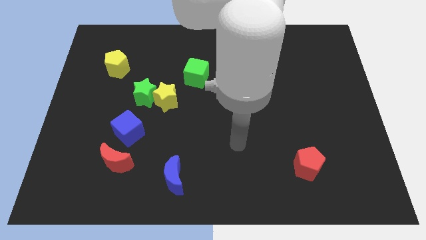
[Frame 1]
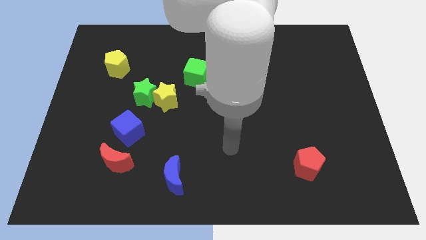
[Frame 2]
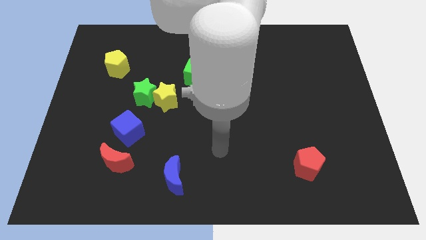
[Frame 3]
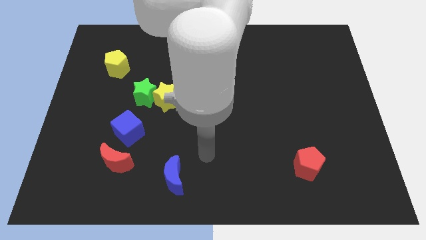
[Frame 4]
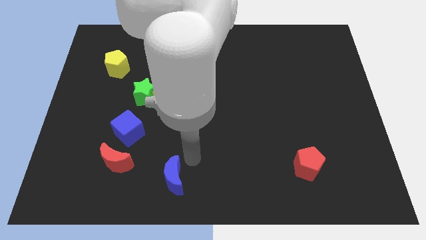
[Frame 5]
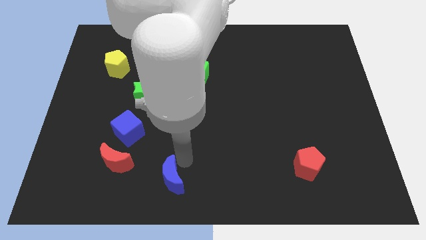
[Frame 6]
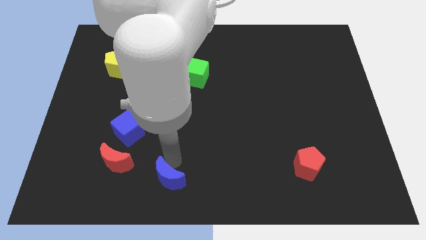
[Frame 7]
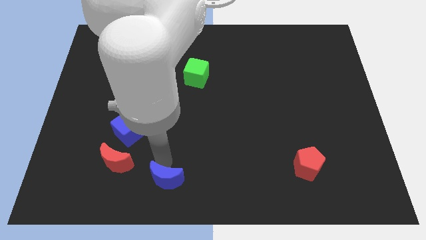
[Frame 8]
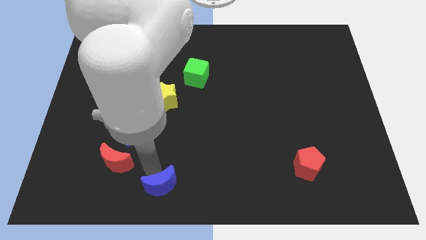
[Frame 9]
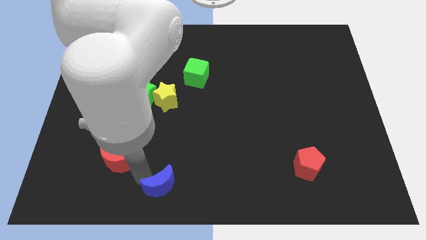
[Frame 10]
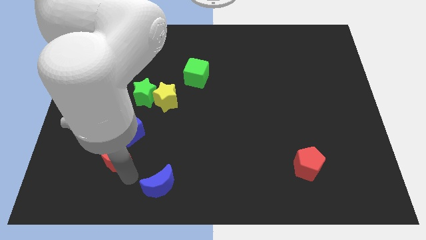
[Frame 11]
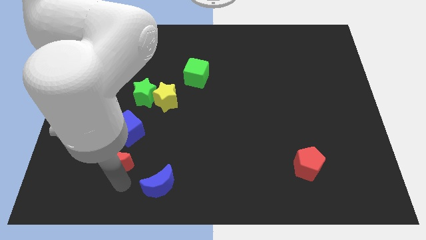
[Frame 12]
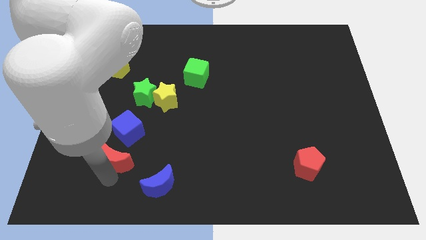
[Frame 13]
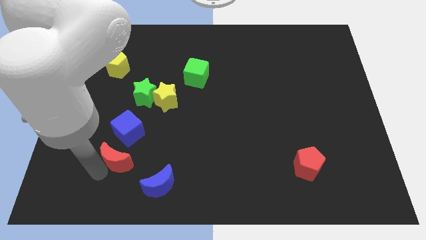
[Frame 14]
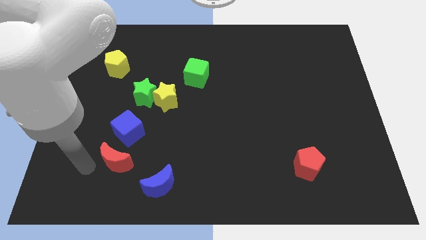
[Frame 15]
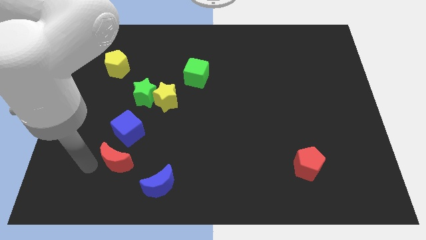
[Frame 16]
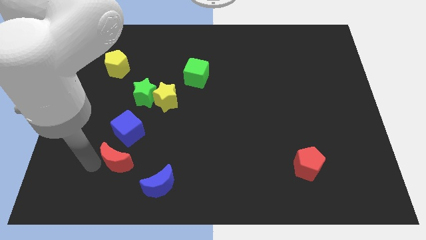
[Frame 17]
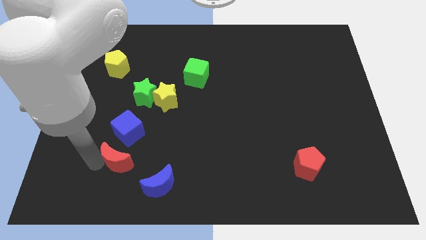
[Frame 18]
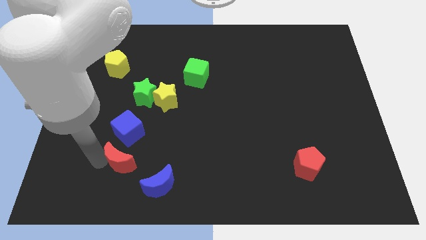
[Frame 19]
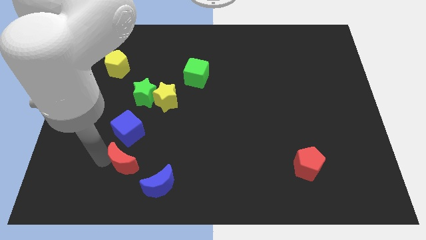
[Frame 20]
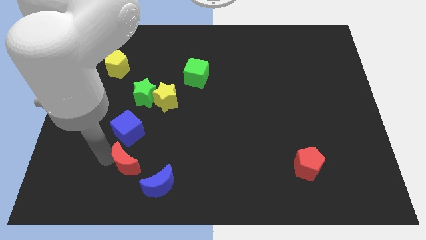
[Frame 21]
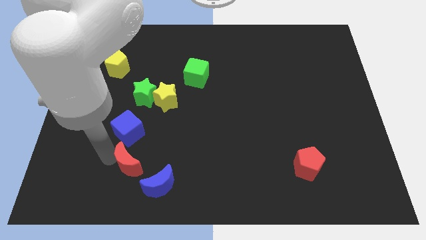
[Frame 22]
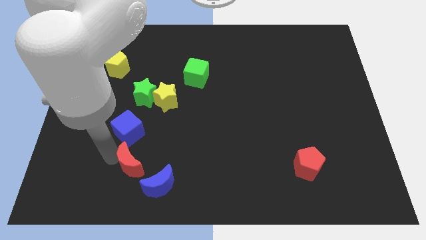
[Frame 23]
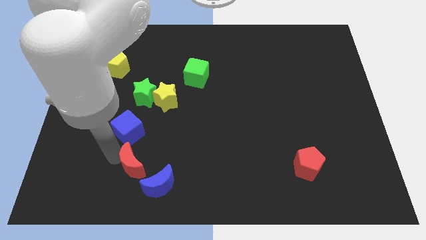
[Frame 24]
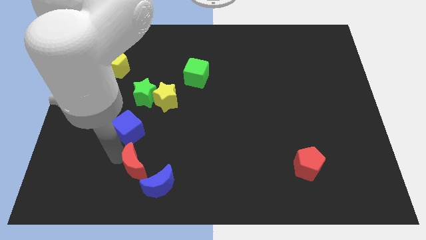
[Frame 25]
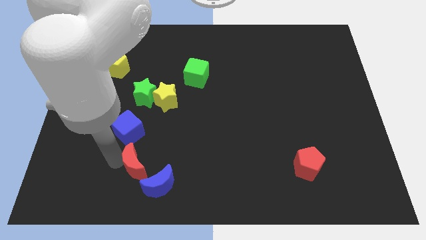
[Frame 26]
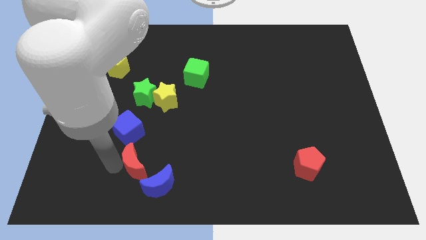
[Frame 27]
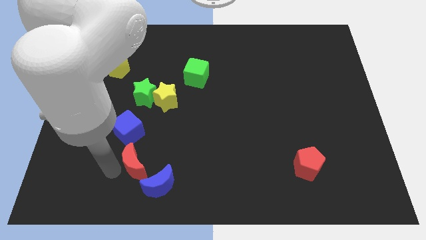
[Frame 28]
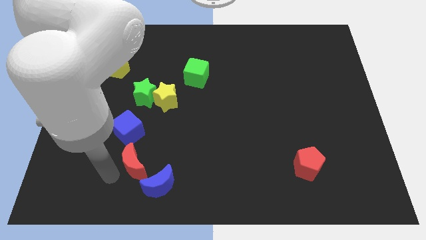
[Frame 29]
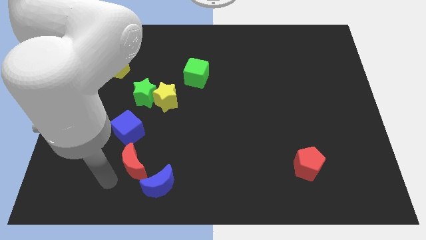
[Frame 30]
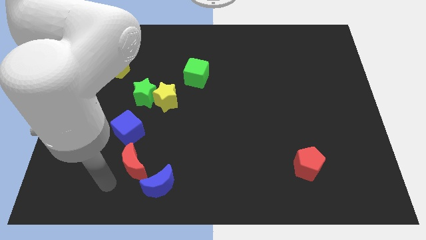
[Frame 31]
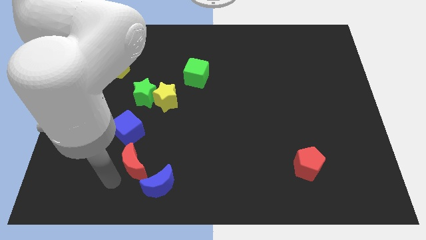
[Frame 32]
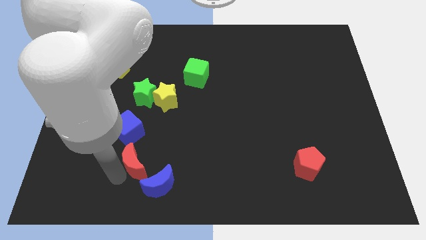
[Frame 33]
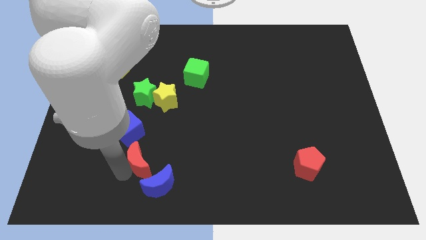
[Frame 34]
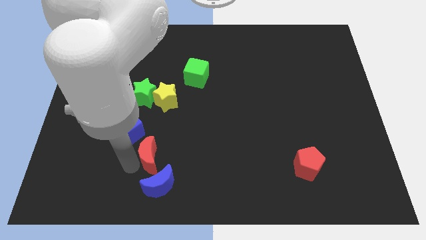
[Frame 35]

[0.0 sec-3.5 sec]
slide the red moon a little to the right

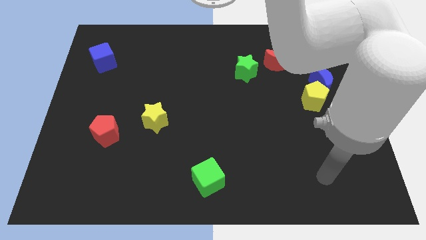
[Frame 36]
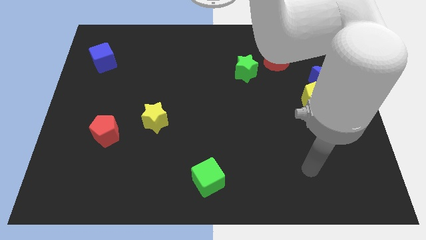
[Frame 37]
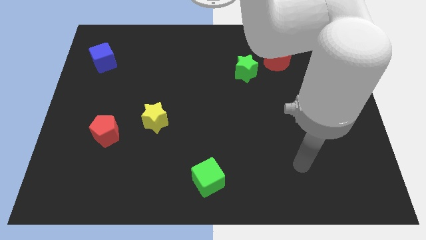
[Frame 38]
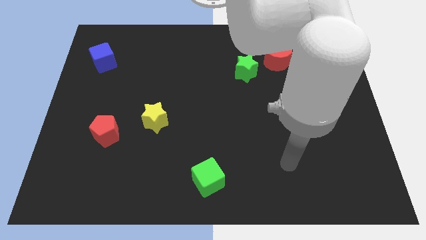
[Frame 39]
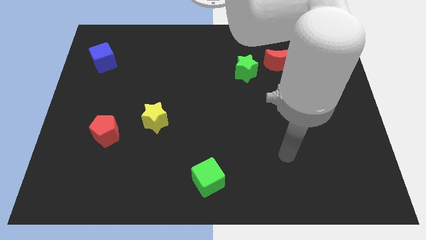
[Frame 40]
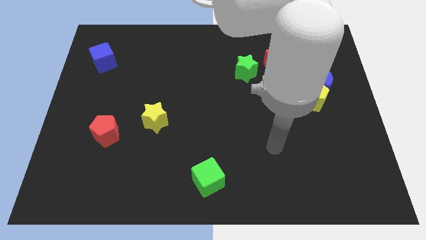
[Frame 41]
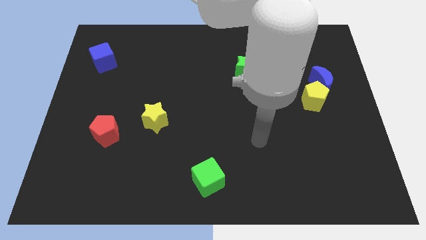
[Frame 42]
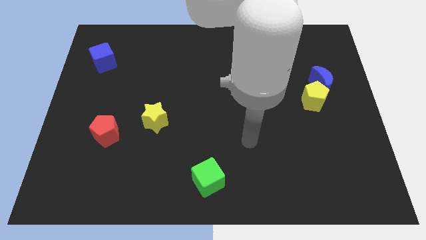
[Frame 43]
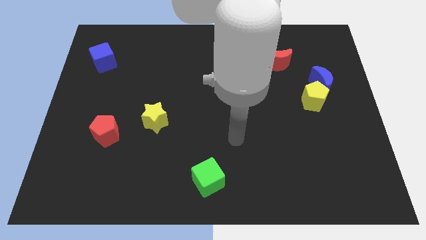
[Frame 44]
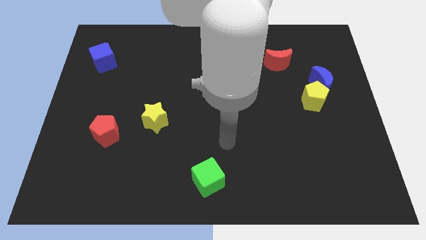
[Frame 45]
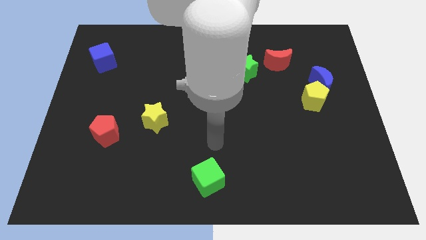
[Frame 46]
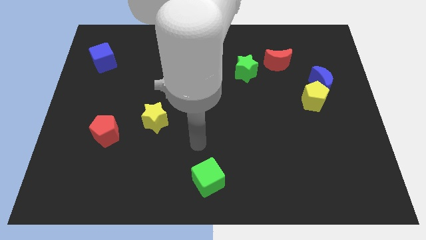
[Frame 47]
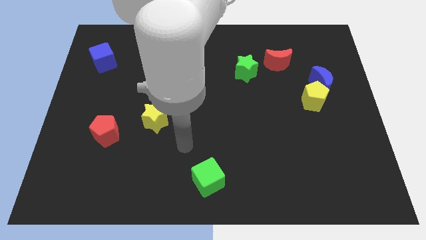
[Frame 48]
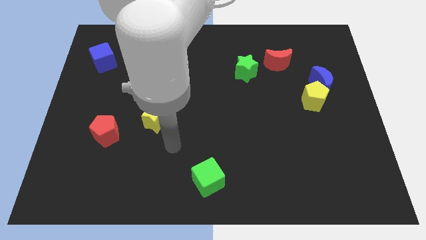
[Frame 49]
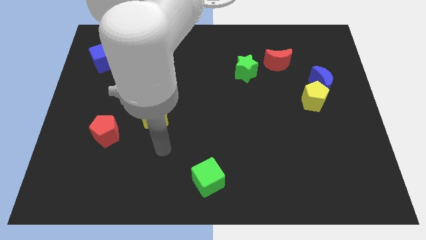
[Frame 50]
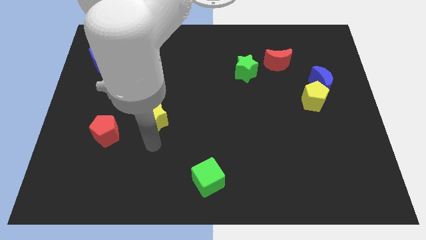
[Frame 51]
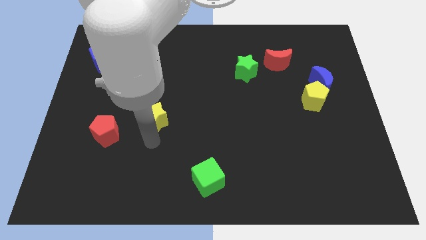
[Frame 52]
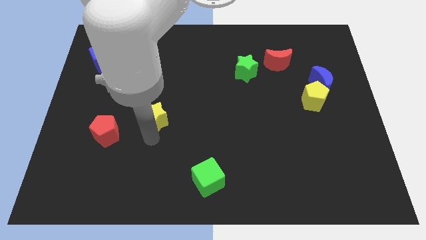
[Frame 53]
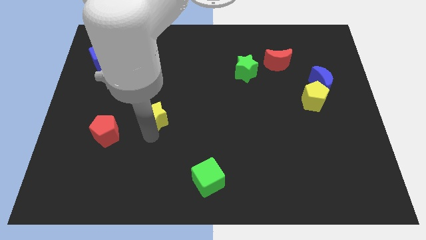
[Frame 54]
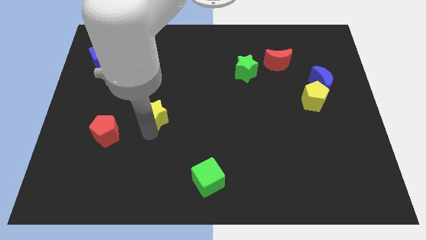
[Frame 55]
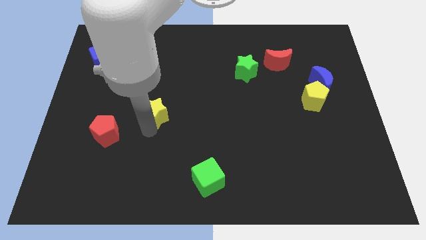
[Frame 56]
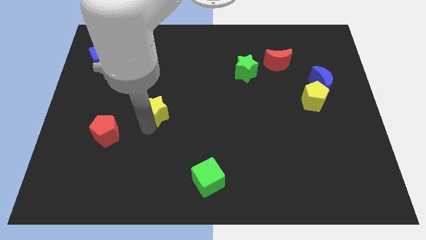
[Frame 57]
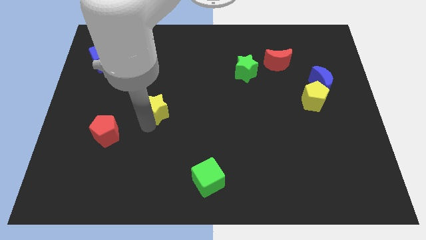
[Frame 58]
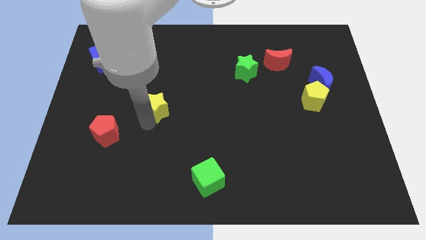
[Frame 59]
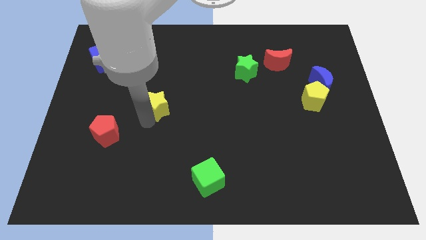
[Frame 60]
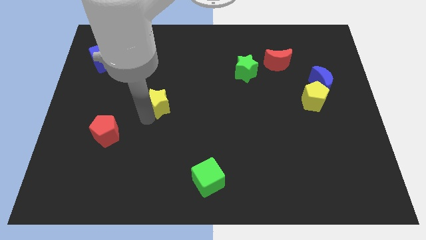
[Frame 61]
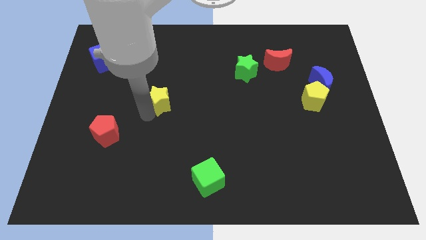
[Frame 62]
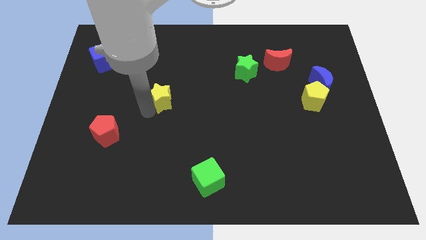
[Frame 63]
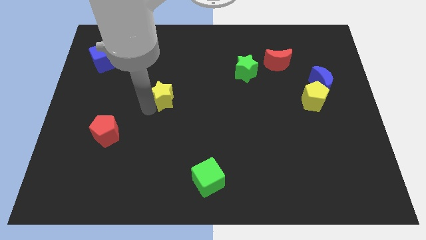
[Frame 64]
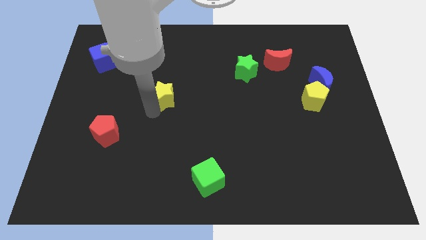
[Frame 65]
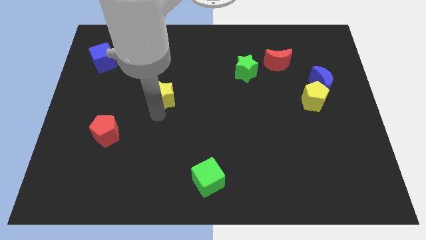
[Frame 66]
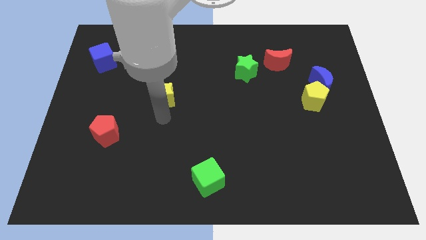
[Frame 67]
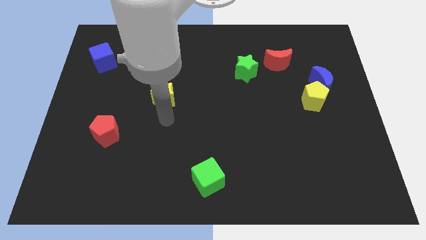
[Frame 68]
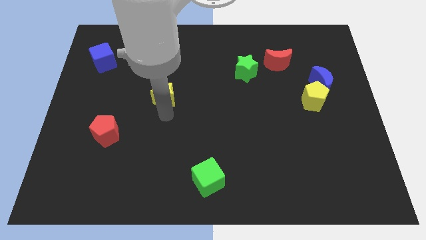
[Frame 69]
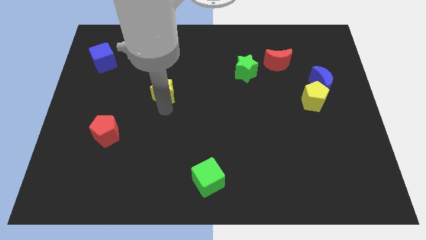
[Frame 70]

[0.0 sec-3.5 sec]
move the yellow star somewhat upwards

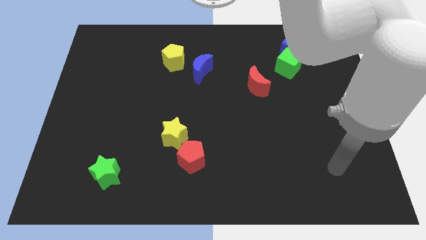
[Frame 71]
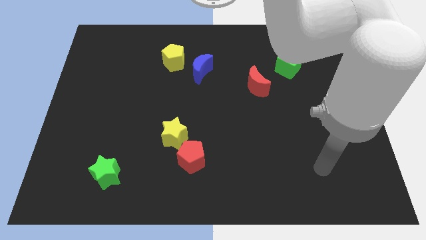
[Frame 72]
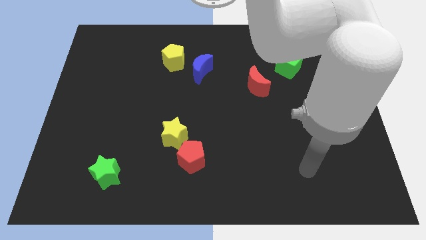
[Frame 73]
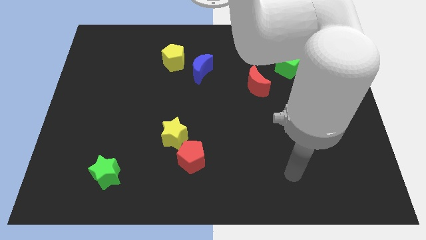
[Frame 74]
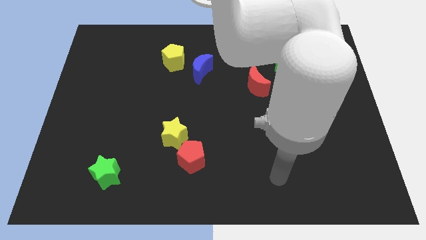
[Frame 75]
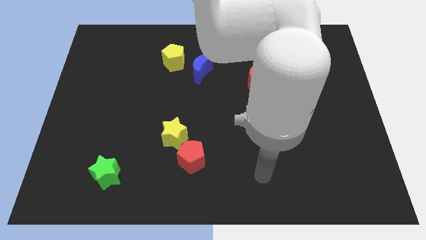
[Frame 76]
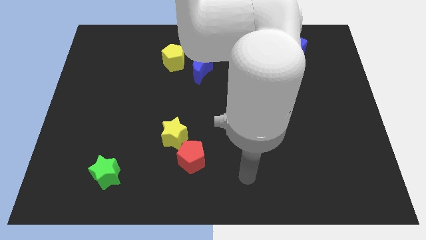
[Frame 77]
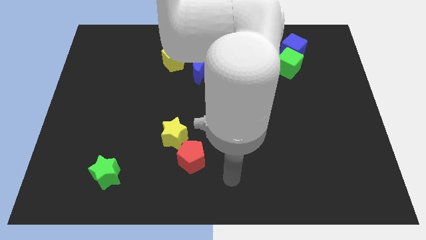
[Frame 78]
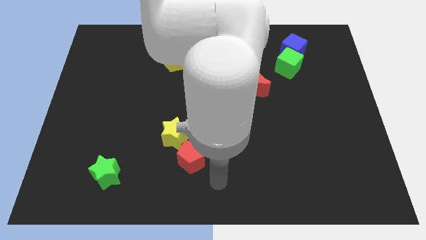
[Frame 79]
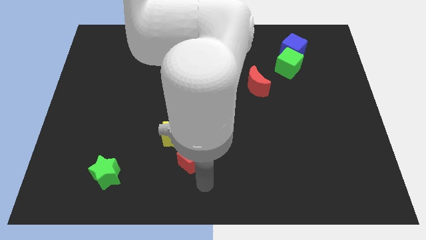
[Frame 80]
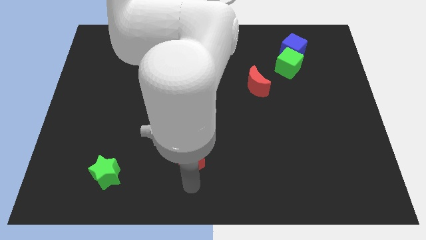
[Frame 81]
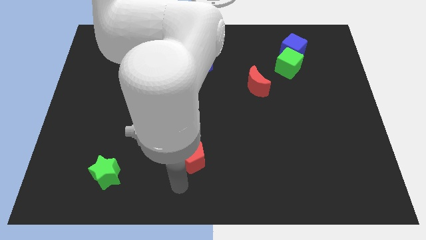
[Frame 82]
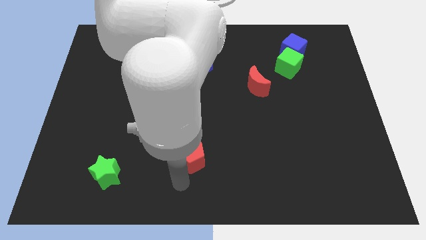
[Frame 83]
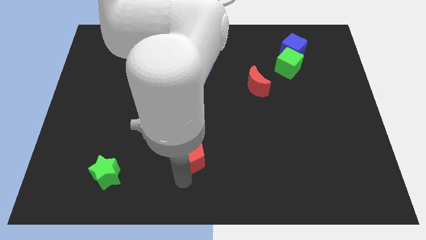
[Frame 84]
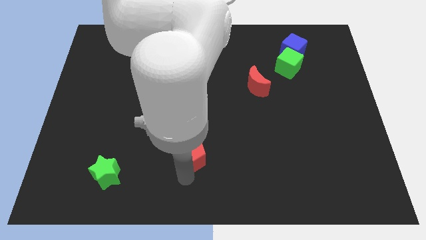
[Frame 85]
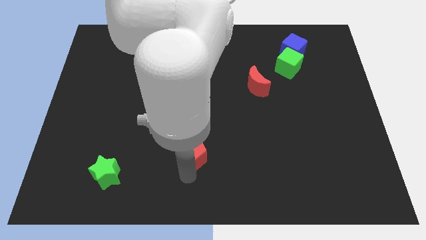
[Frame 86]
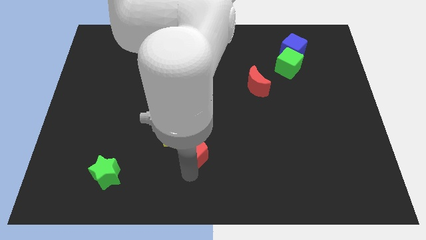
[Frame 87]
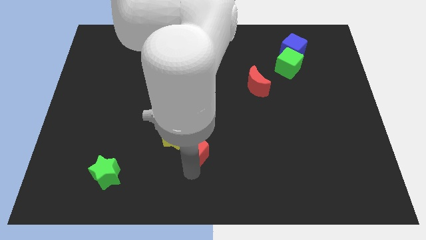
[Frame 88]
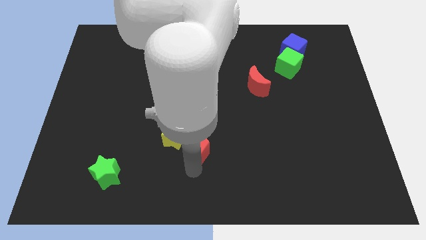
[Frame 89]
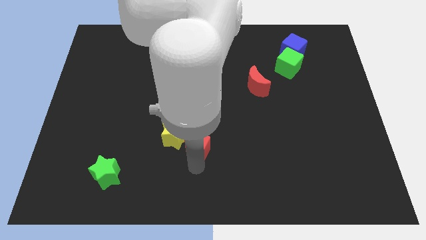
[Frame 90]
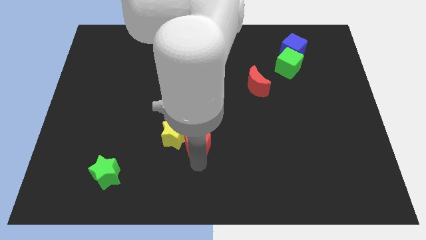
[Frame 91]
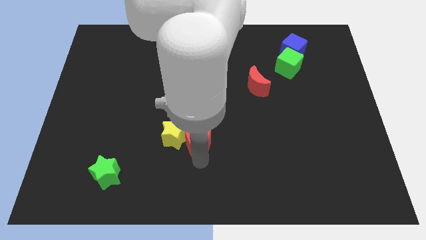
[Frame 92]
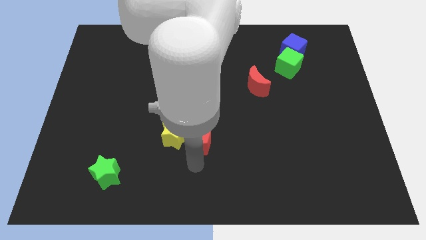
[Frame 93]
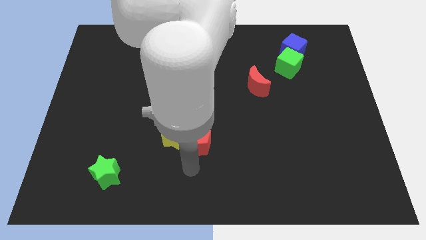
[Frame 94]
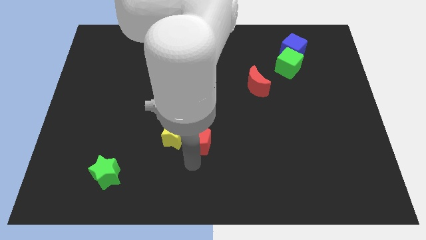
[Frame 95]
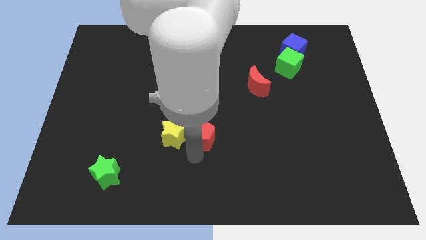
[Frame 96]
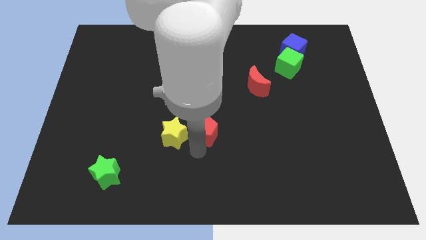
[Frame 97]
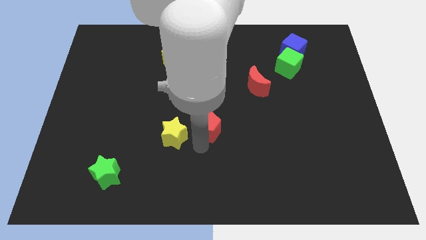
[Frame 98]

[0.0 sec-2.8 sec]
slightly slide the red pentagon upwards
